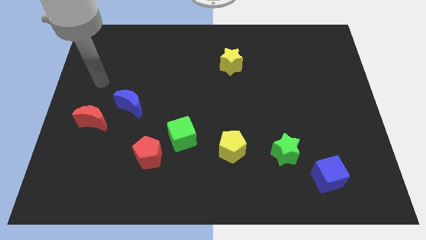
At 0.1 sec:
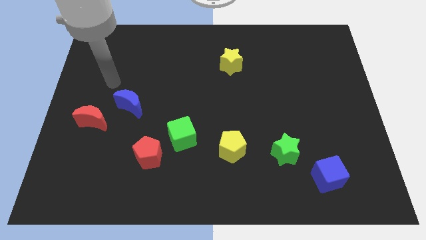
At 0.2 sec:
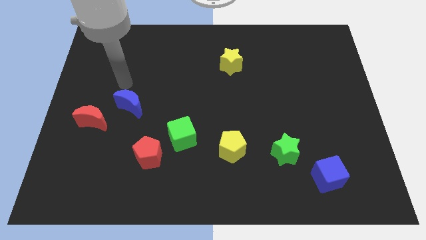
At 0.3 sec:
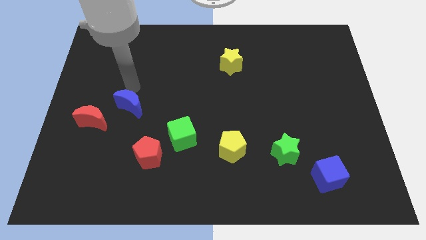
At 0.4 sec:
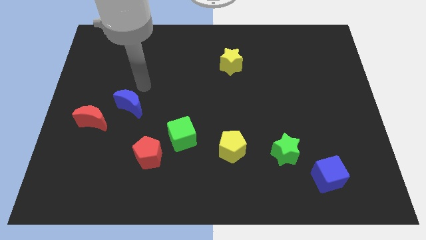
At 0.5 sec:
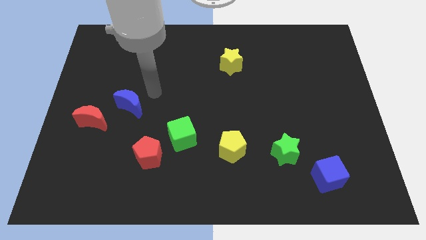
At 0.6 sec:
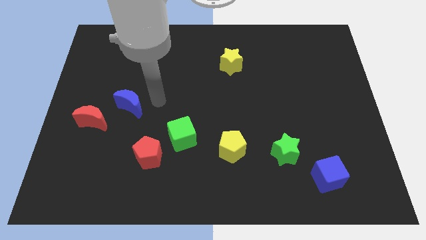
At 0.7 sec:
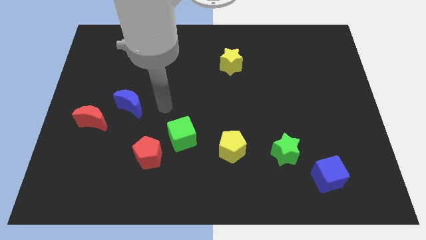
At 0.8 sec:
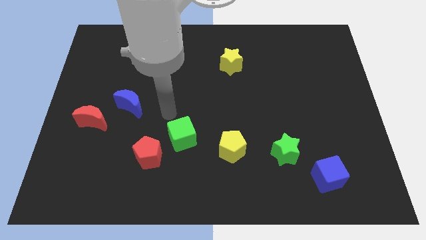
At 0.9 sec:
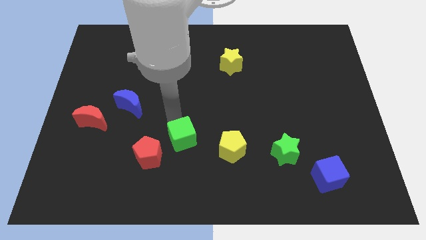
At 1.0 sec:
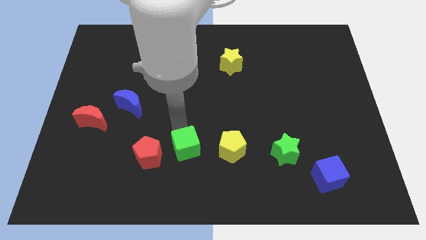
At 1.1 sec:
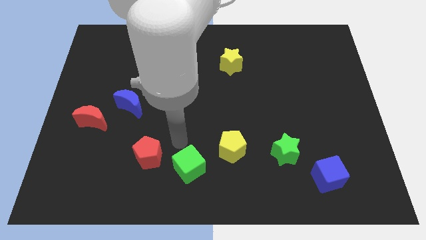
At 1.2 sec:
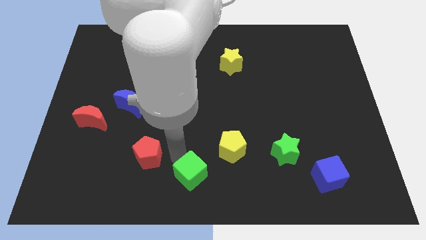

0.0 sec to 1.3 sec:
pull the red pentagon apart from the green cube

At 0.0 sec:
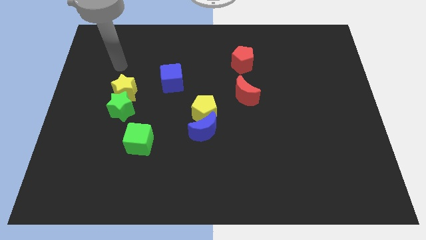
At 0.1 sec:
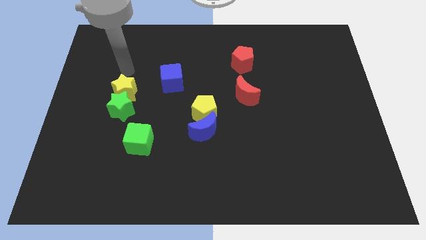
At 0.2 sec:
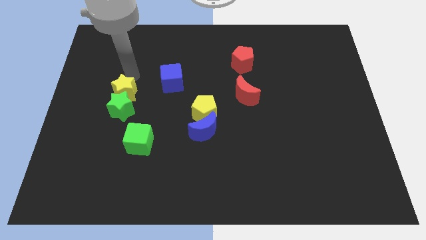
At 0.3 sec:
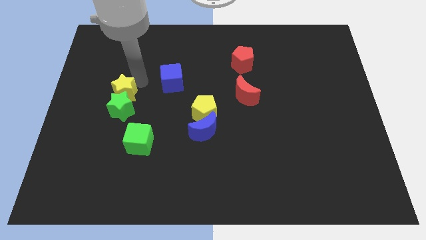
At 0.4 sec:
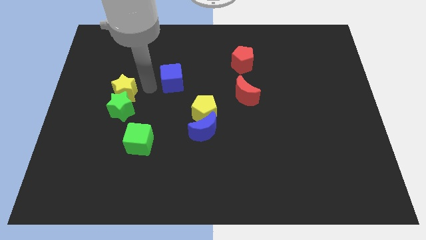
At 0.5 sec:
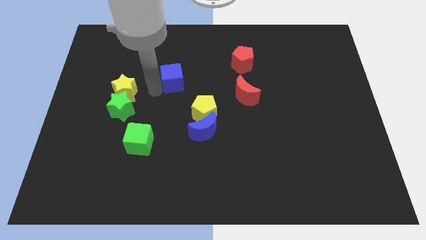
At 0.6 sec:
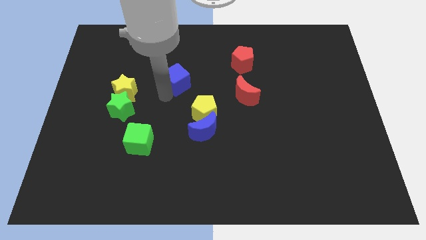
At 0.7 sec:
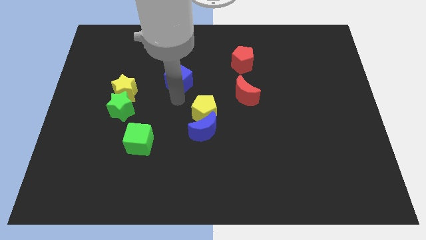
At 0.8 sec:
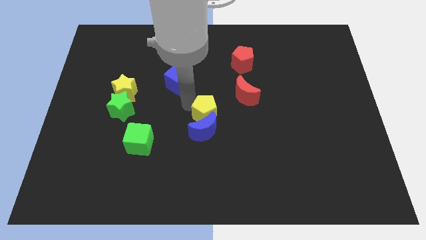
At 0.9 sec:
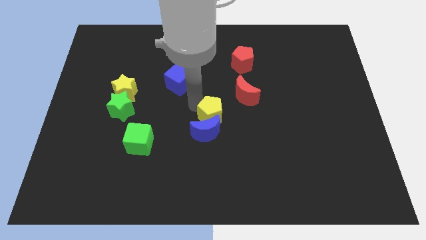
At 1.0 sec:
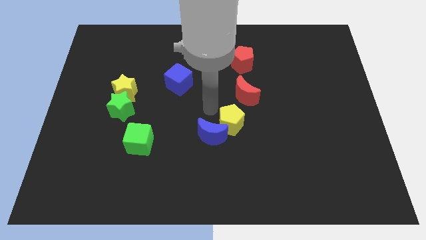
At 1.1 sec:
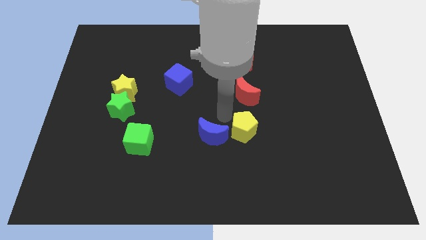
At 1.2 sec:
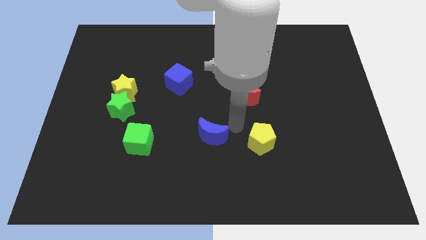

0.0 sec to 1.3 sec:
pull the blue moon apart from the yellow pentagon

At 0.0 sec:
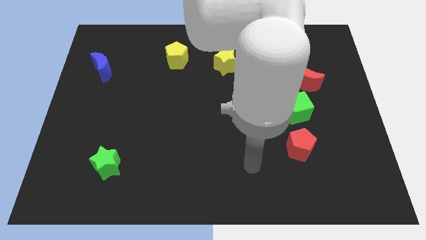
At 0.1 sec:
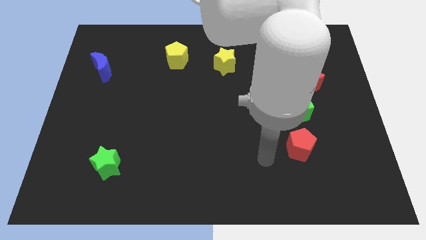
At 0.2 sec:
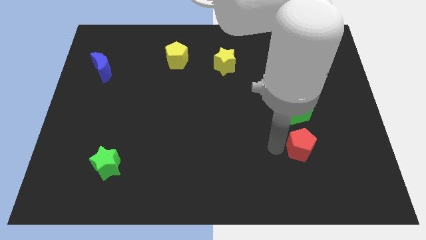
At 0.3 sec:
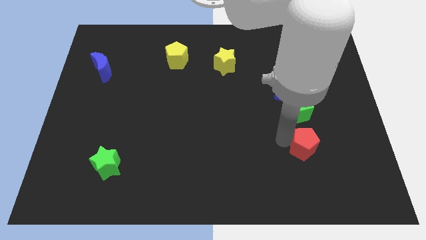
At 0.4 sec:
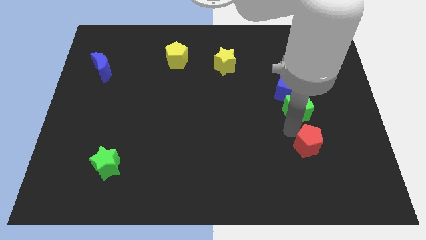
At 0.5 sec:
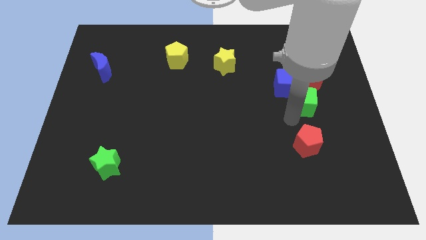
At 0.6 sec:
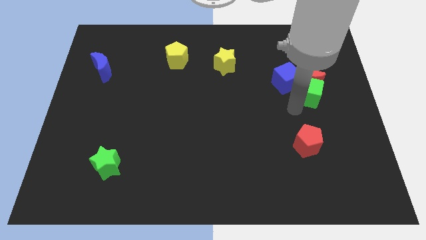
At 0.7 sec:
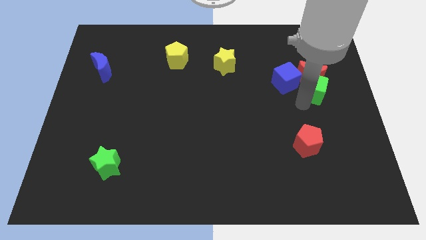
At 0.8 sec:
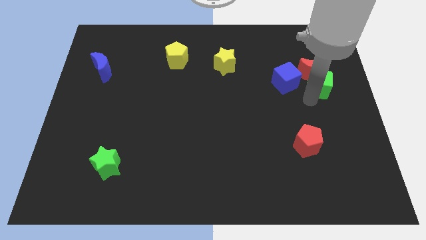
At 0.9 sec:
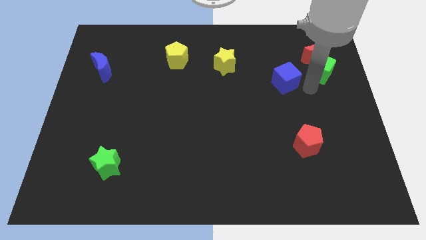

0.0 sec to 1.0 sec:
pull the blue cube apart from the red moon and green cube

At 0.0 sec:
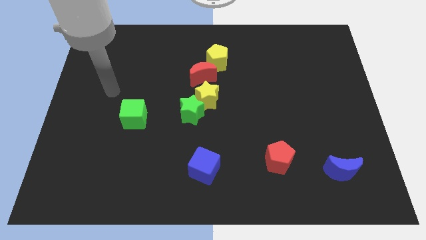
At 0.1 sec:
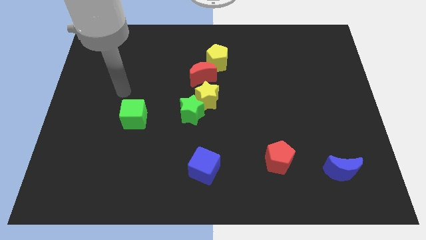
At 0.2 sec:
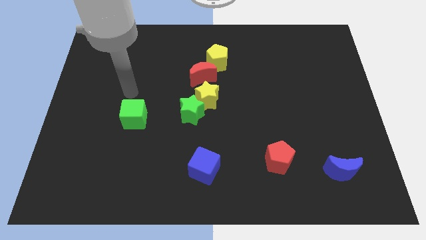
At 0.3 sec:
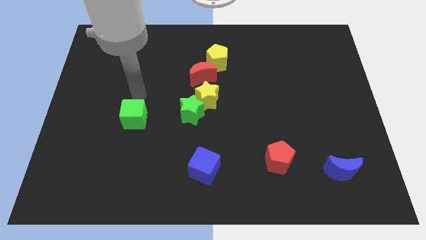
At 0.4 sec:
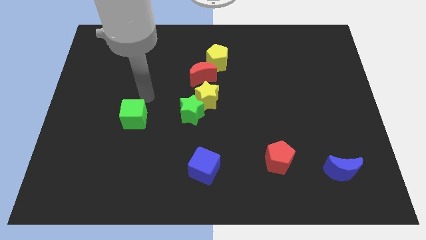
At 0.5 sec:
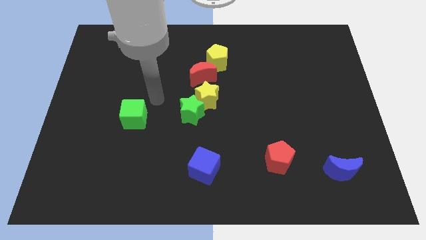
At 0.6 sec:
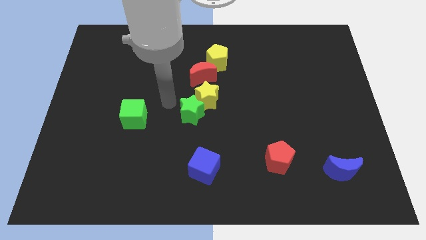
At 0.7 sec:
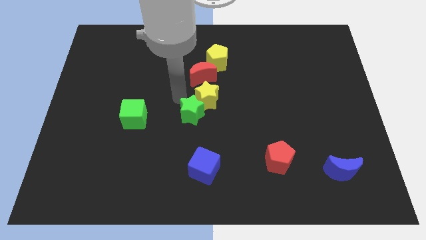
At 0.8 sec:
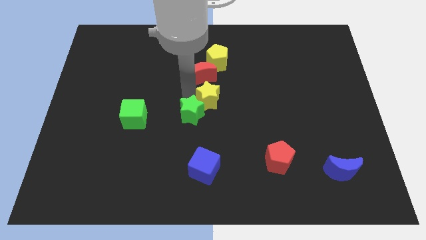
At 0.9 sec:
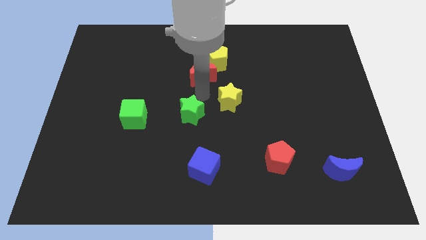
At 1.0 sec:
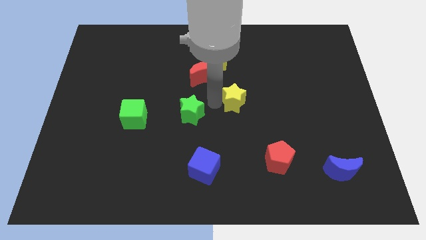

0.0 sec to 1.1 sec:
move the green star away from the yellow star

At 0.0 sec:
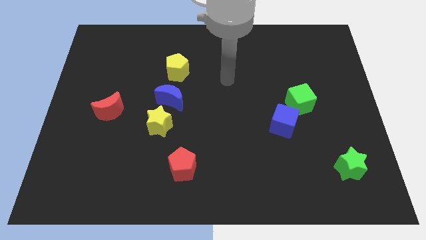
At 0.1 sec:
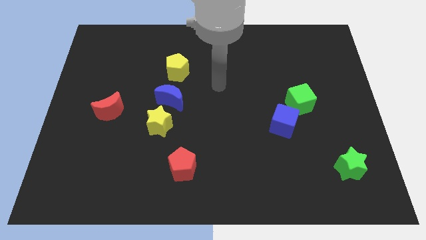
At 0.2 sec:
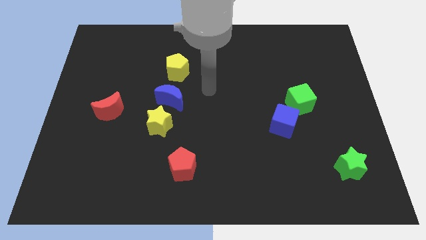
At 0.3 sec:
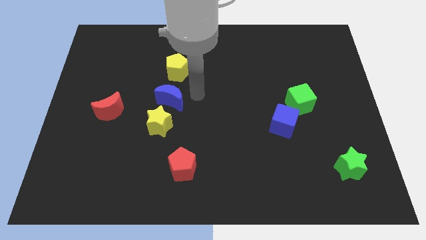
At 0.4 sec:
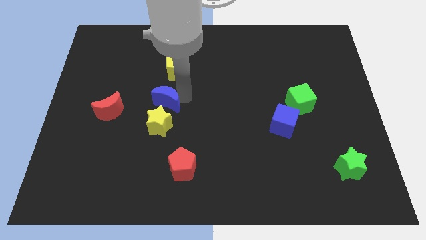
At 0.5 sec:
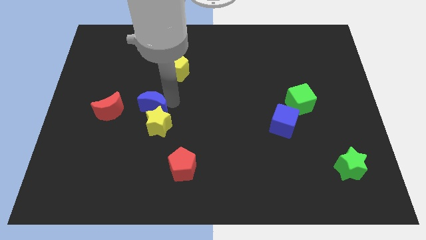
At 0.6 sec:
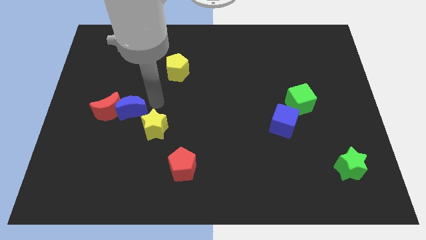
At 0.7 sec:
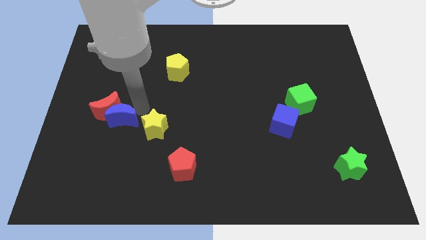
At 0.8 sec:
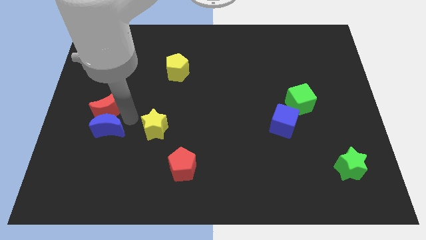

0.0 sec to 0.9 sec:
separate the yellow star from the blue moon

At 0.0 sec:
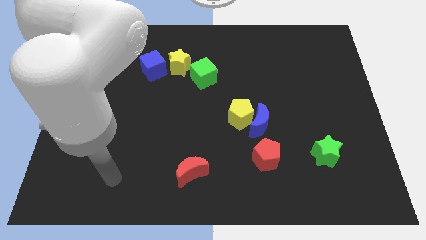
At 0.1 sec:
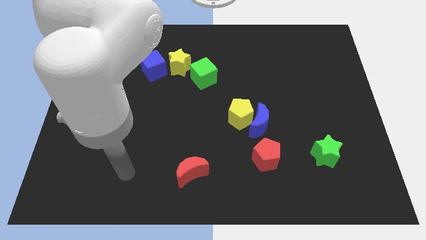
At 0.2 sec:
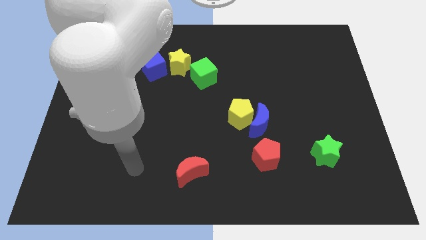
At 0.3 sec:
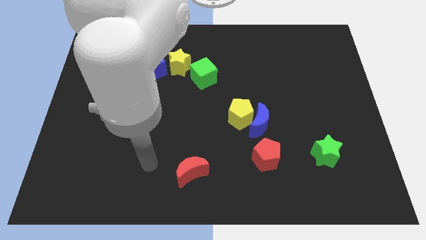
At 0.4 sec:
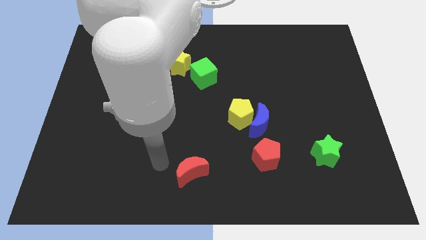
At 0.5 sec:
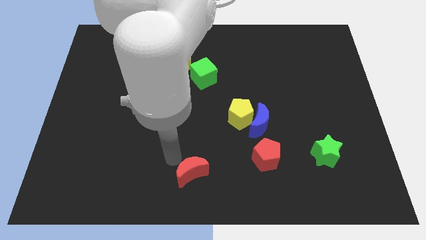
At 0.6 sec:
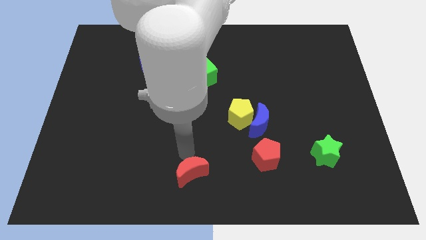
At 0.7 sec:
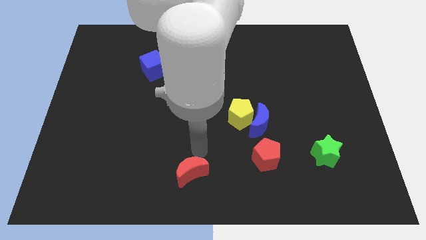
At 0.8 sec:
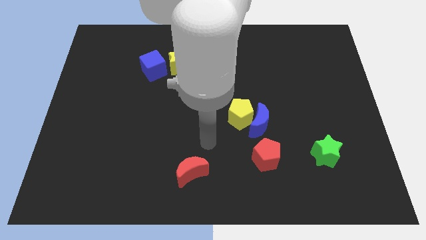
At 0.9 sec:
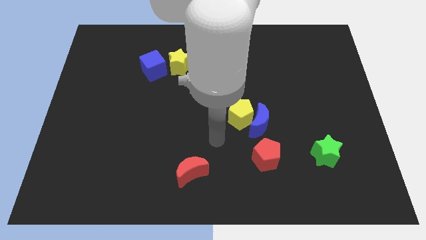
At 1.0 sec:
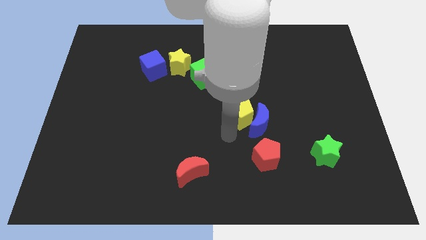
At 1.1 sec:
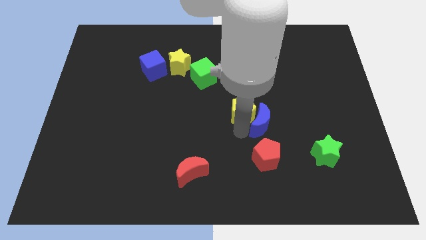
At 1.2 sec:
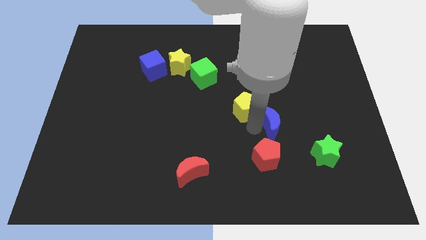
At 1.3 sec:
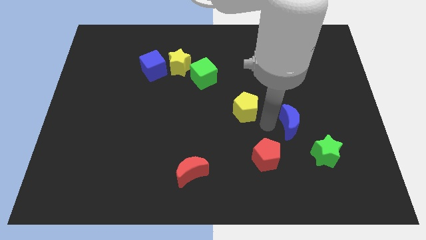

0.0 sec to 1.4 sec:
pull the yellow pentagon apart from the blue moon

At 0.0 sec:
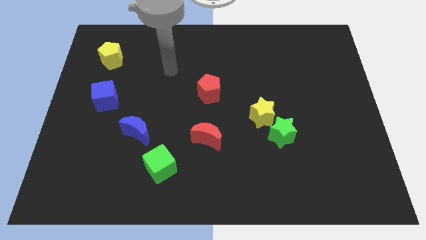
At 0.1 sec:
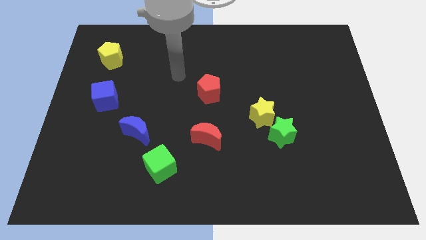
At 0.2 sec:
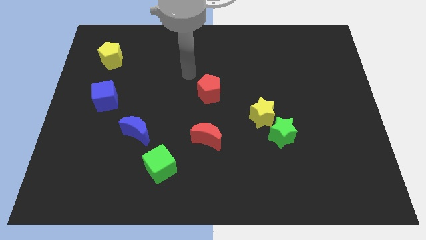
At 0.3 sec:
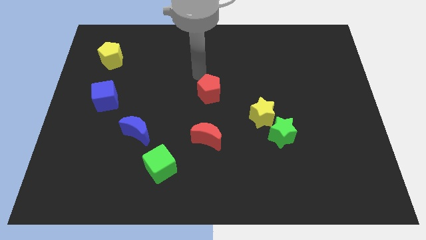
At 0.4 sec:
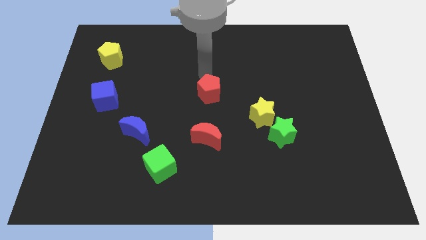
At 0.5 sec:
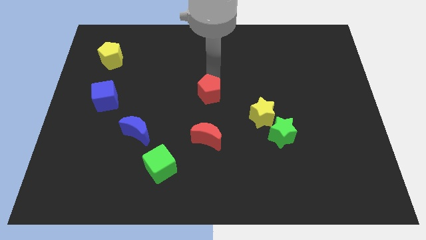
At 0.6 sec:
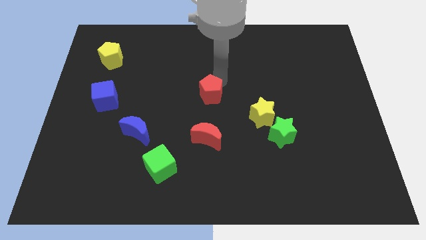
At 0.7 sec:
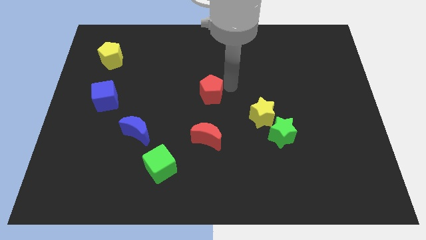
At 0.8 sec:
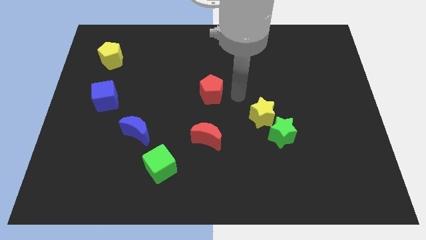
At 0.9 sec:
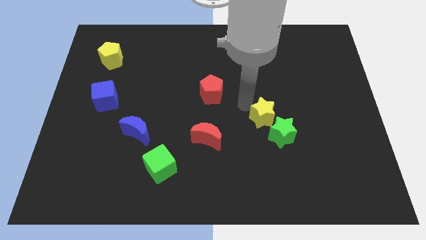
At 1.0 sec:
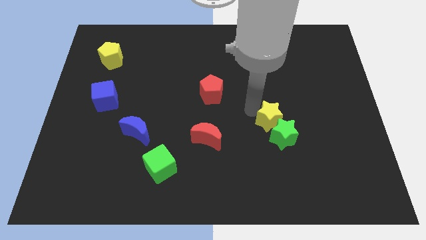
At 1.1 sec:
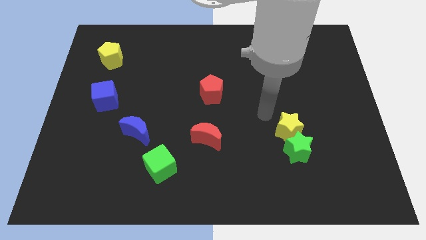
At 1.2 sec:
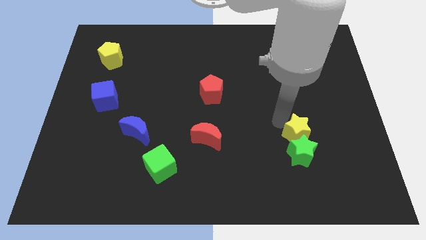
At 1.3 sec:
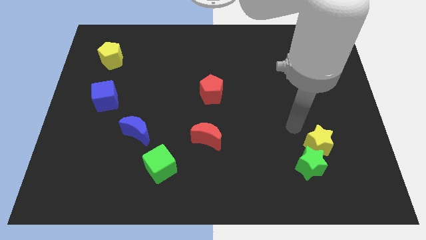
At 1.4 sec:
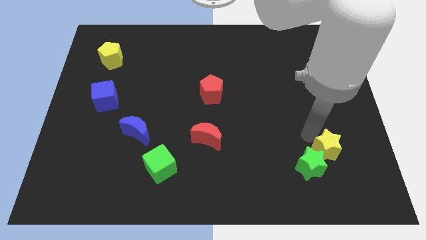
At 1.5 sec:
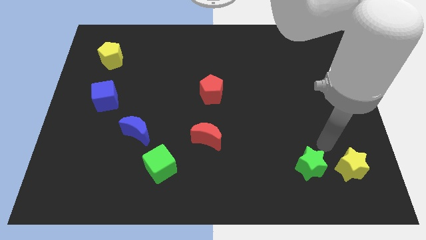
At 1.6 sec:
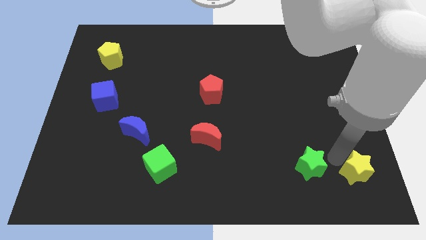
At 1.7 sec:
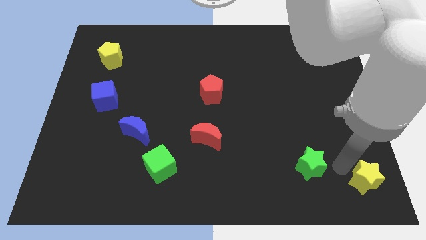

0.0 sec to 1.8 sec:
pull the green star apart from the yellow star

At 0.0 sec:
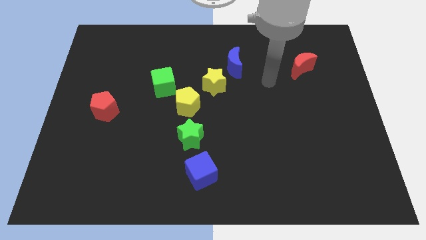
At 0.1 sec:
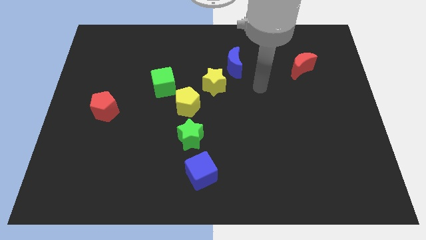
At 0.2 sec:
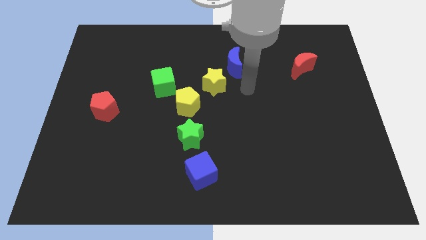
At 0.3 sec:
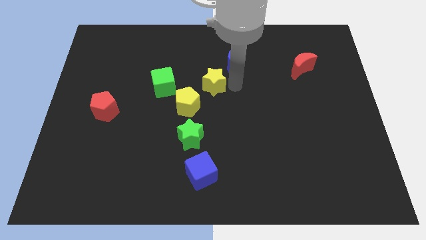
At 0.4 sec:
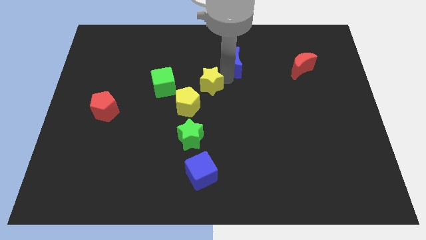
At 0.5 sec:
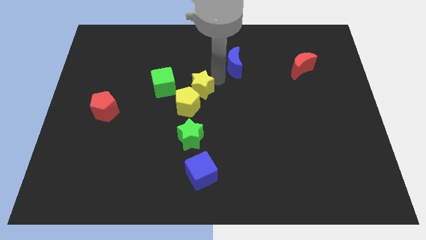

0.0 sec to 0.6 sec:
move the blue moon away from the yellow star
